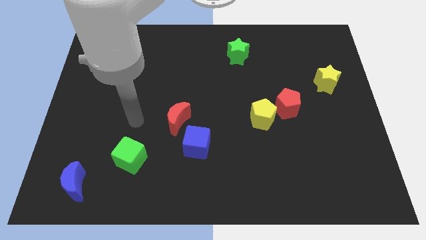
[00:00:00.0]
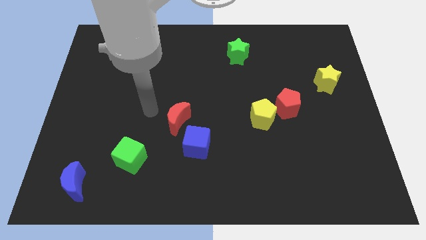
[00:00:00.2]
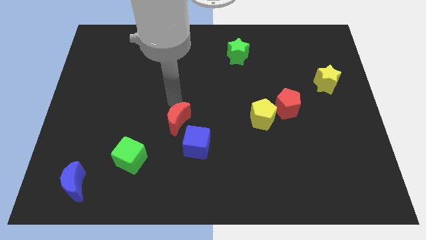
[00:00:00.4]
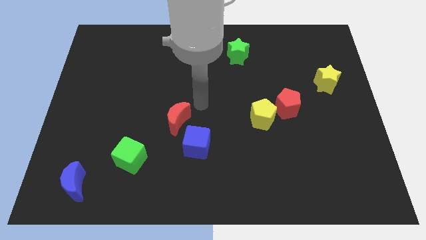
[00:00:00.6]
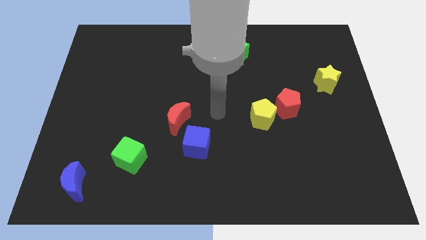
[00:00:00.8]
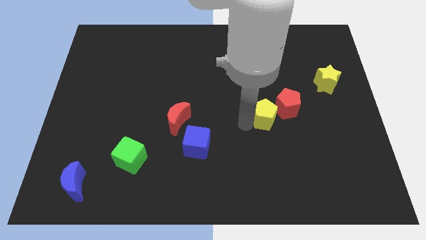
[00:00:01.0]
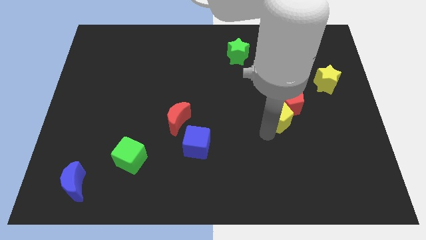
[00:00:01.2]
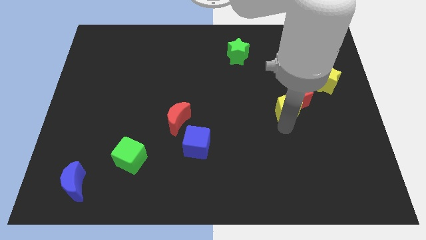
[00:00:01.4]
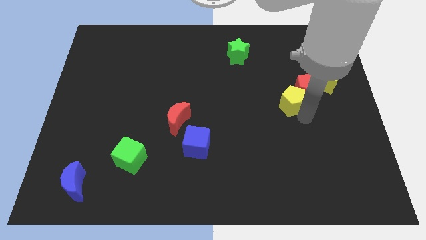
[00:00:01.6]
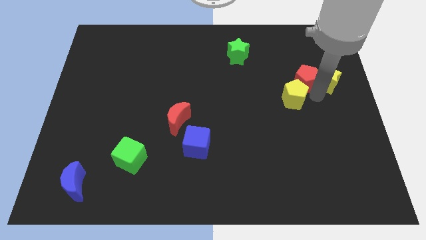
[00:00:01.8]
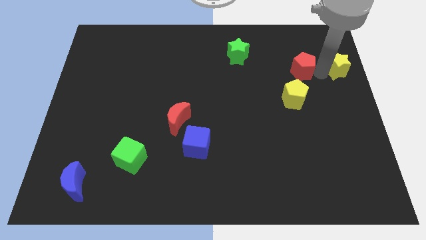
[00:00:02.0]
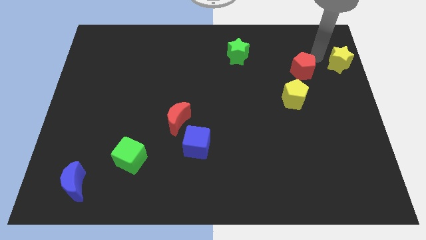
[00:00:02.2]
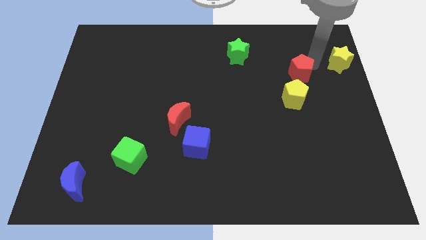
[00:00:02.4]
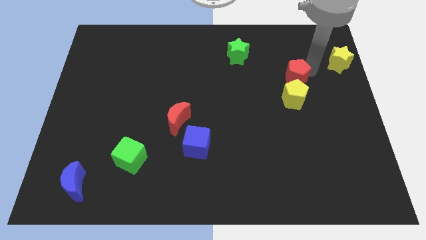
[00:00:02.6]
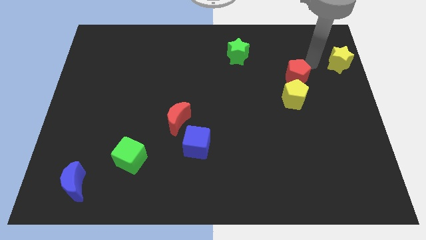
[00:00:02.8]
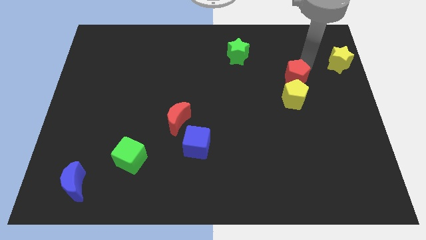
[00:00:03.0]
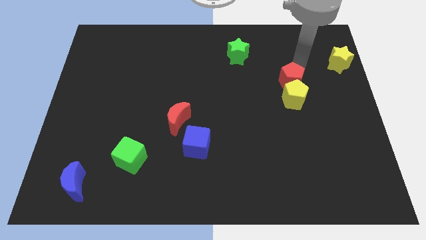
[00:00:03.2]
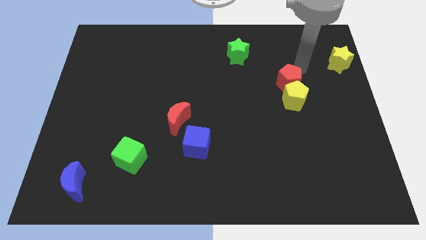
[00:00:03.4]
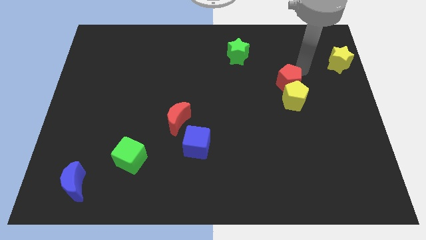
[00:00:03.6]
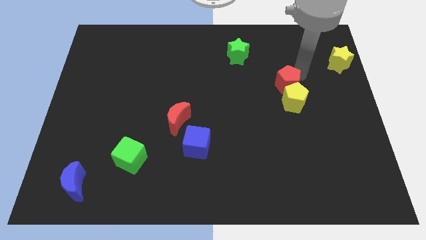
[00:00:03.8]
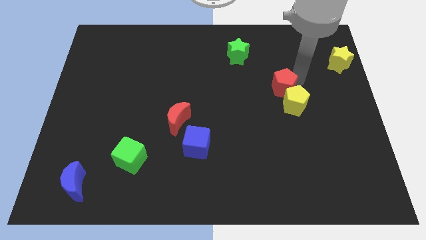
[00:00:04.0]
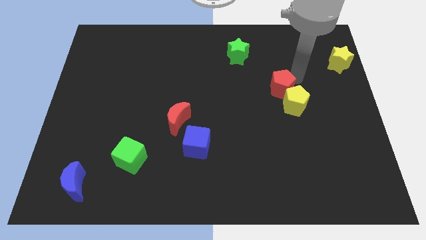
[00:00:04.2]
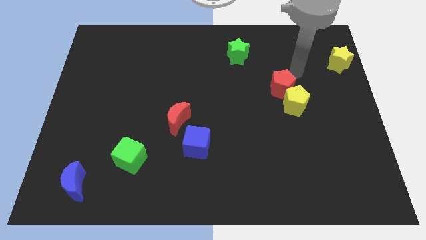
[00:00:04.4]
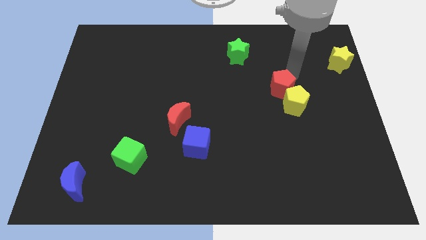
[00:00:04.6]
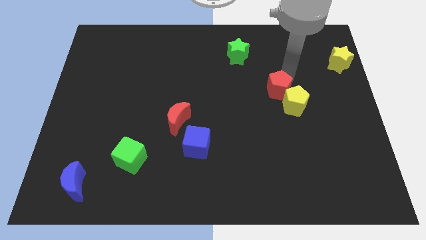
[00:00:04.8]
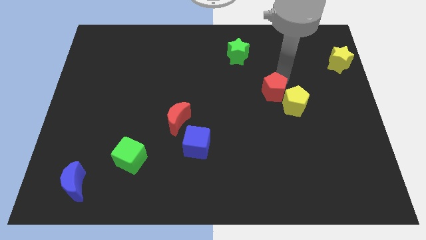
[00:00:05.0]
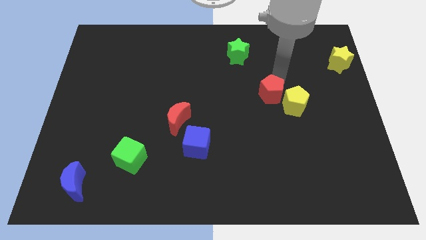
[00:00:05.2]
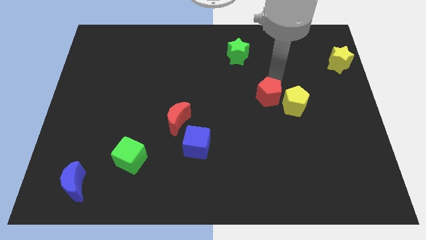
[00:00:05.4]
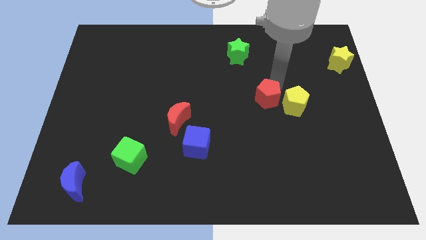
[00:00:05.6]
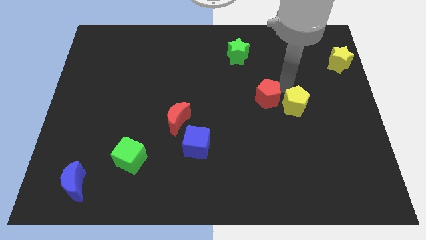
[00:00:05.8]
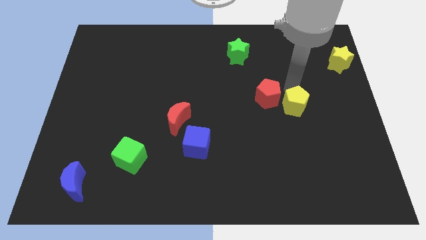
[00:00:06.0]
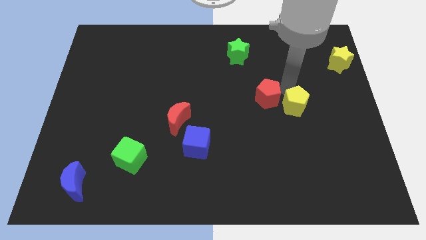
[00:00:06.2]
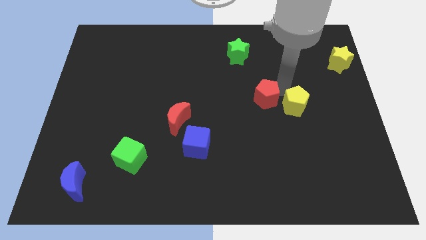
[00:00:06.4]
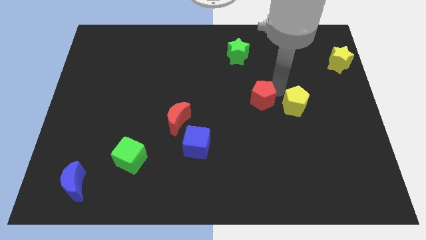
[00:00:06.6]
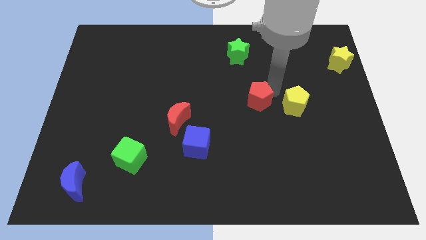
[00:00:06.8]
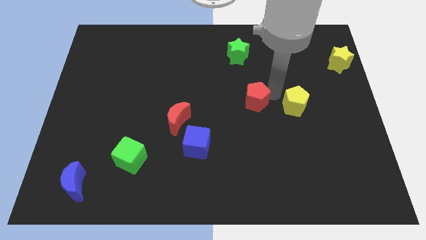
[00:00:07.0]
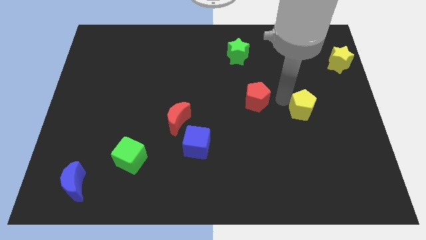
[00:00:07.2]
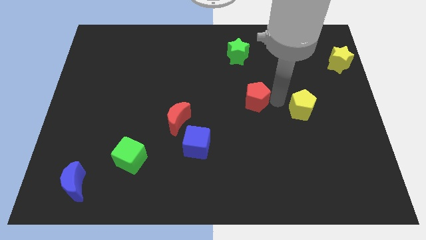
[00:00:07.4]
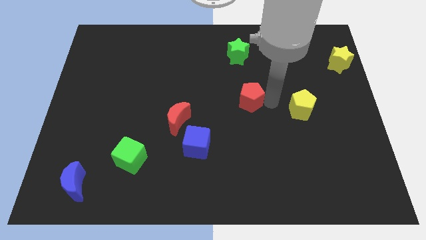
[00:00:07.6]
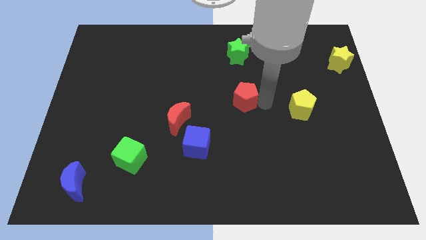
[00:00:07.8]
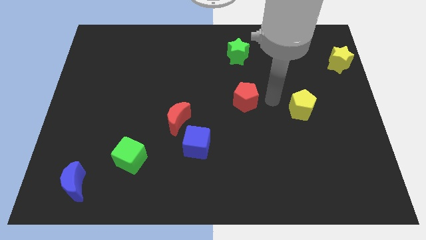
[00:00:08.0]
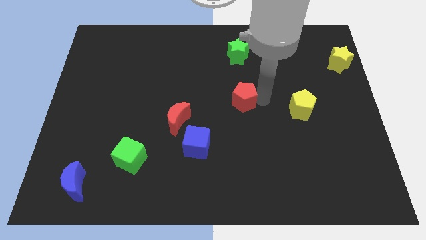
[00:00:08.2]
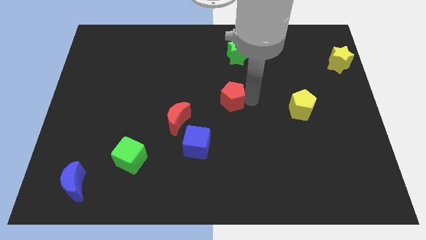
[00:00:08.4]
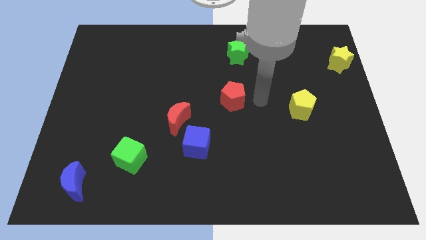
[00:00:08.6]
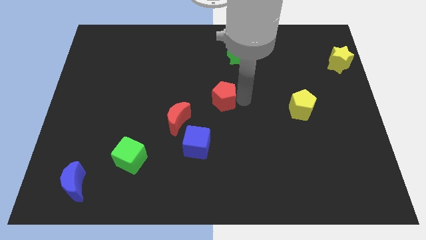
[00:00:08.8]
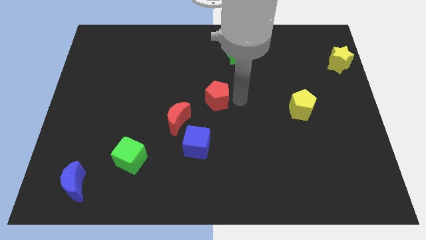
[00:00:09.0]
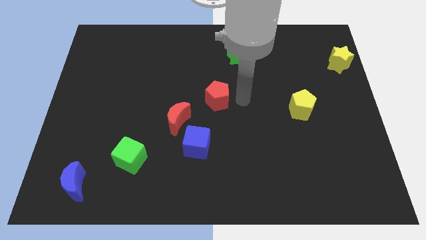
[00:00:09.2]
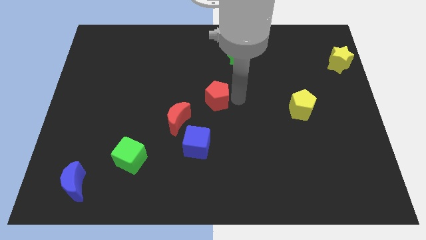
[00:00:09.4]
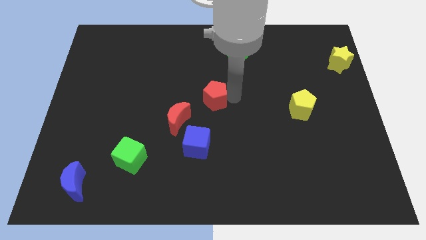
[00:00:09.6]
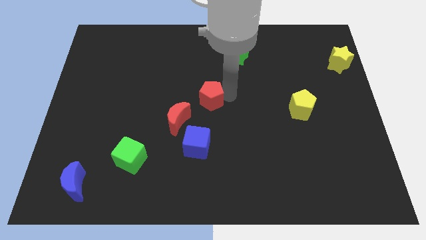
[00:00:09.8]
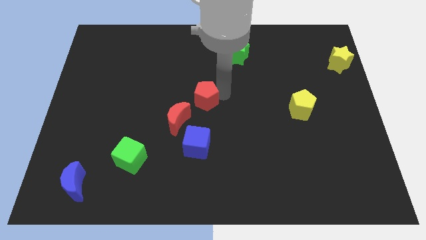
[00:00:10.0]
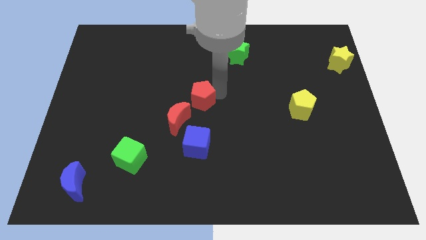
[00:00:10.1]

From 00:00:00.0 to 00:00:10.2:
slide the red pentagon left

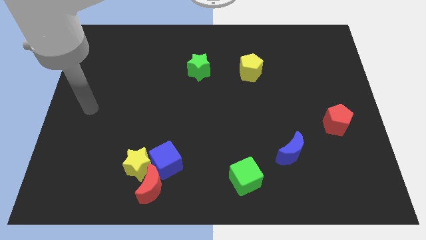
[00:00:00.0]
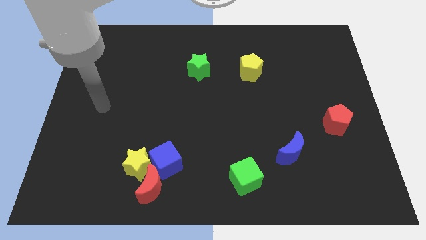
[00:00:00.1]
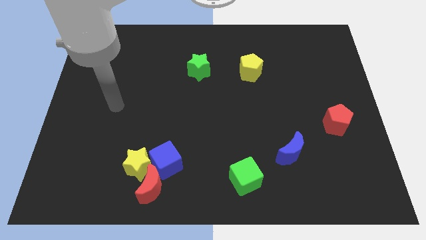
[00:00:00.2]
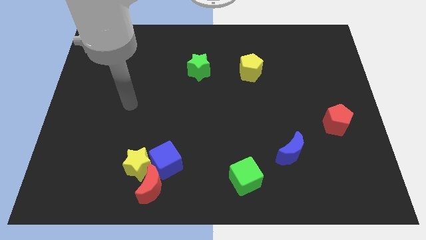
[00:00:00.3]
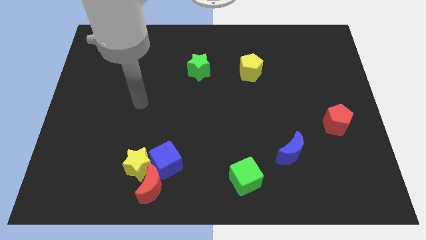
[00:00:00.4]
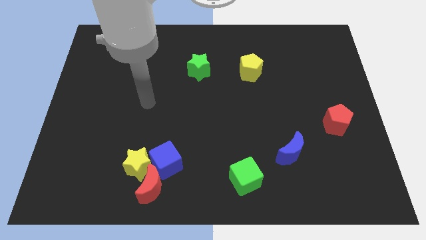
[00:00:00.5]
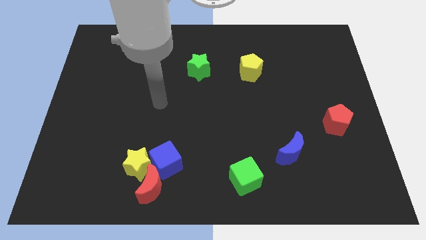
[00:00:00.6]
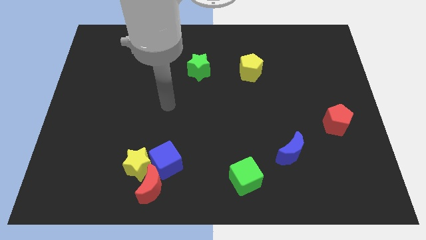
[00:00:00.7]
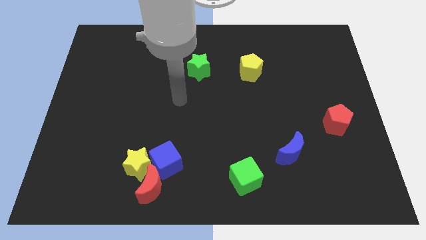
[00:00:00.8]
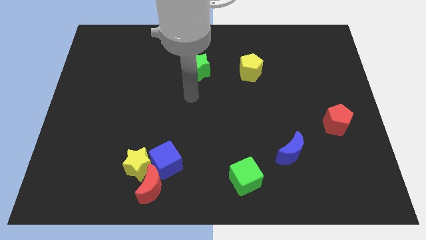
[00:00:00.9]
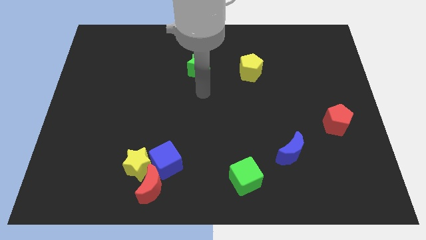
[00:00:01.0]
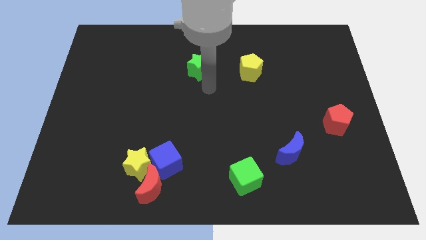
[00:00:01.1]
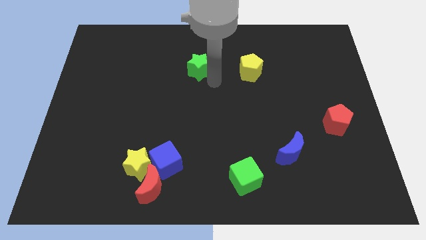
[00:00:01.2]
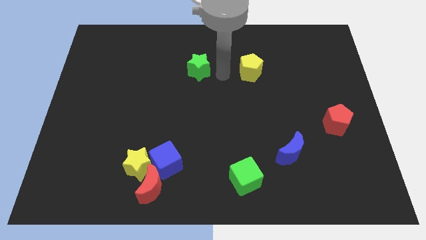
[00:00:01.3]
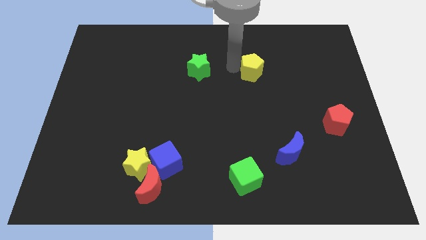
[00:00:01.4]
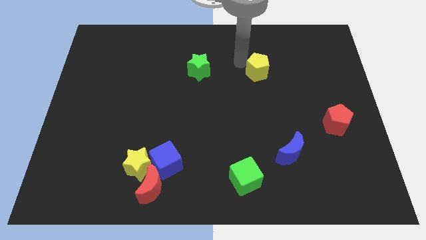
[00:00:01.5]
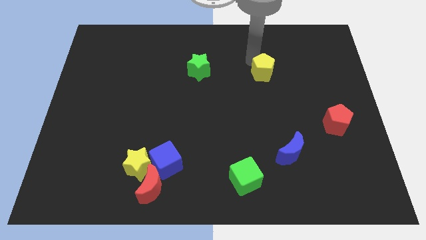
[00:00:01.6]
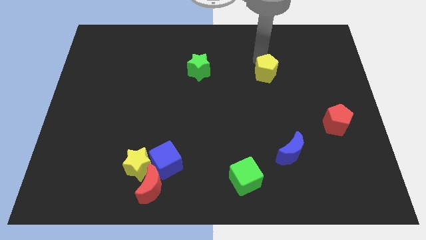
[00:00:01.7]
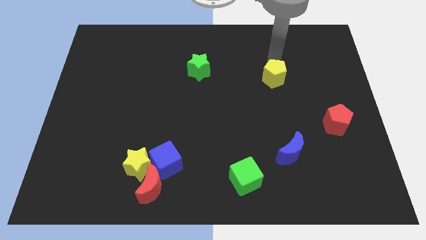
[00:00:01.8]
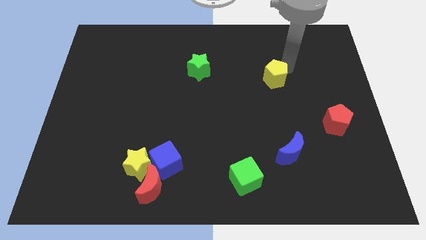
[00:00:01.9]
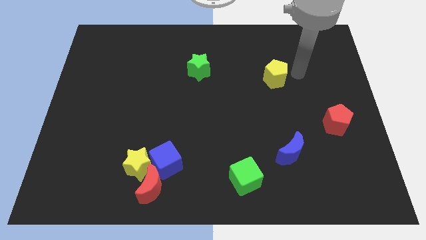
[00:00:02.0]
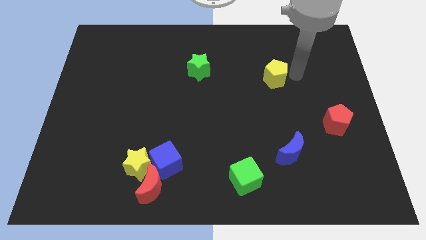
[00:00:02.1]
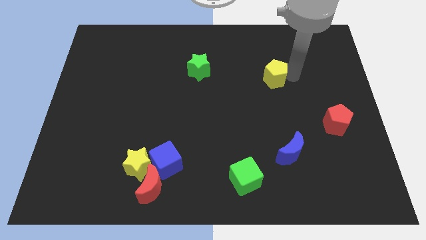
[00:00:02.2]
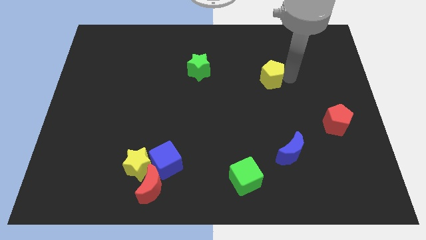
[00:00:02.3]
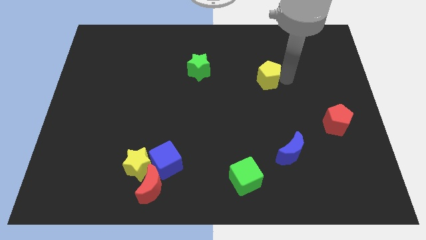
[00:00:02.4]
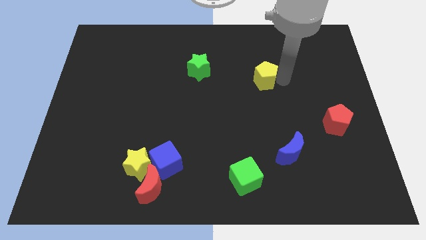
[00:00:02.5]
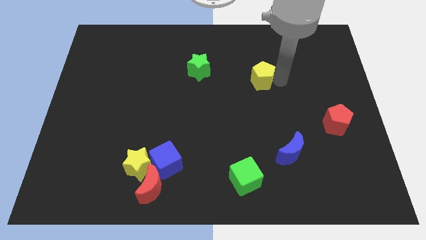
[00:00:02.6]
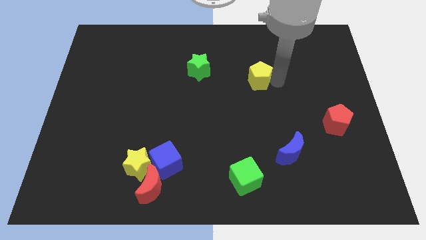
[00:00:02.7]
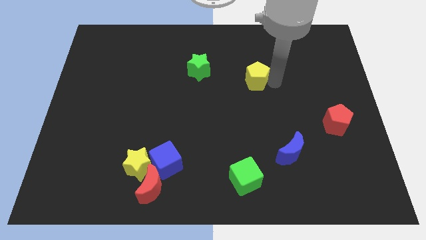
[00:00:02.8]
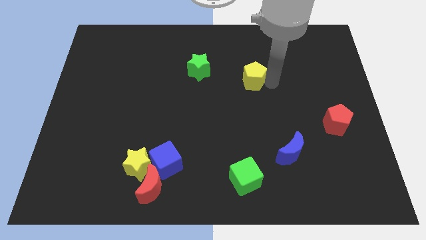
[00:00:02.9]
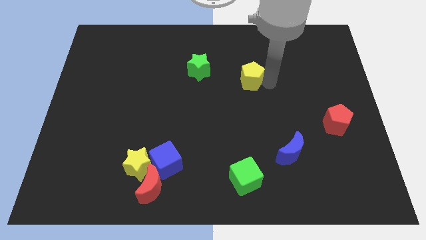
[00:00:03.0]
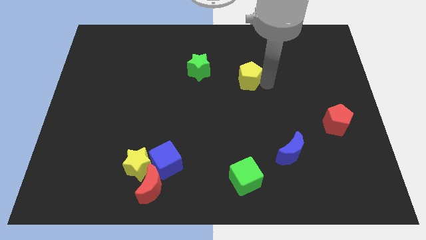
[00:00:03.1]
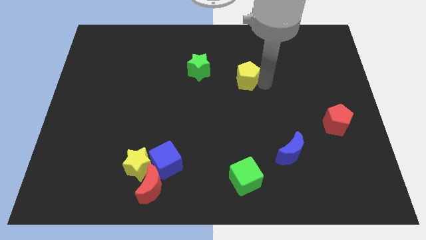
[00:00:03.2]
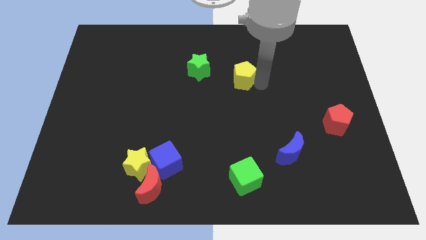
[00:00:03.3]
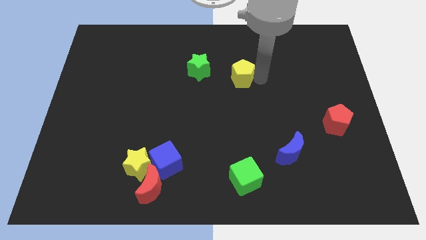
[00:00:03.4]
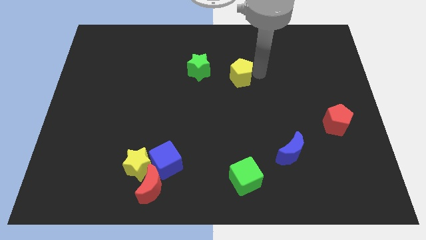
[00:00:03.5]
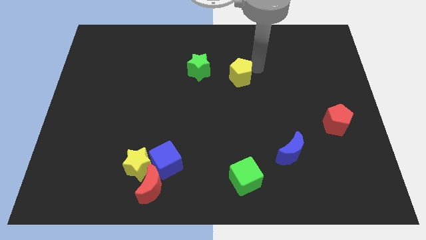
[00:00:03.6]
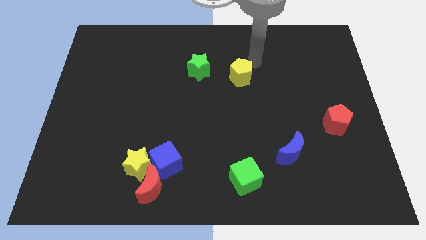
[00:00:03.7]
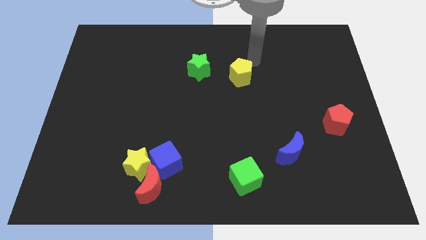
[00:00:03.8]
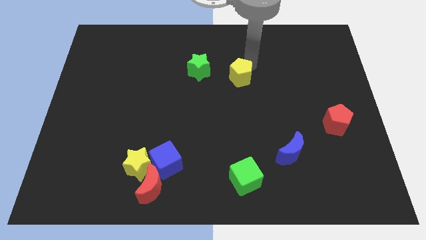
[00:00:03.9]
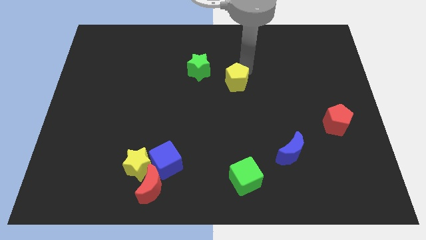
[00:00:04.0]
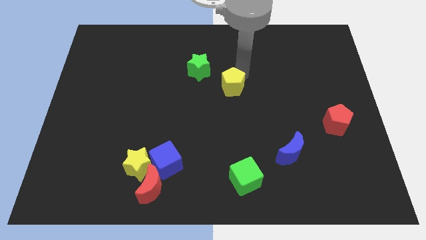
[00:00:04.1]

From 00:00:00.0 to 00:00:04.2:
slide the yellow pentagon down and then to the left a little bit
